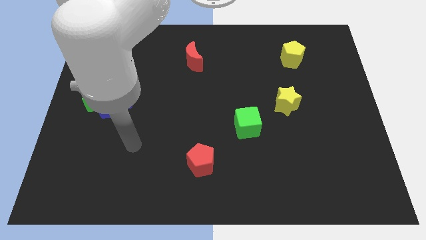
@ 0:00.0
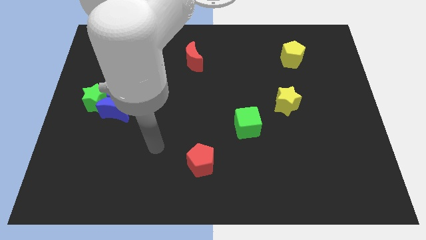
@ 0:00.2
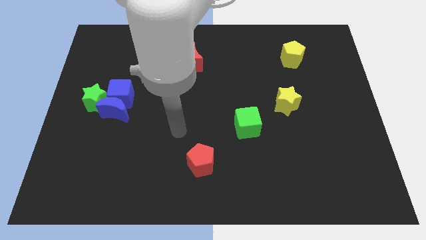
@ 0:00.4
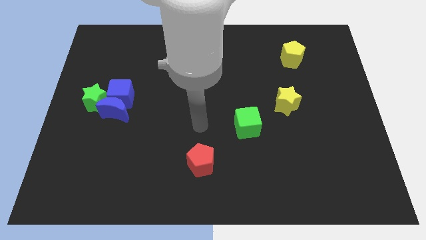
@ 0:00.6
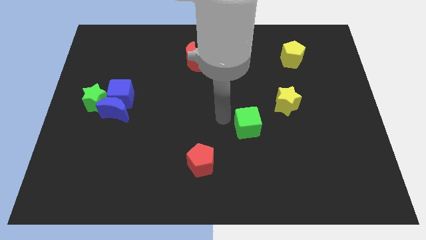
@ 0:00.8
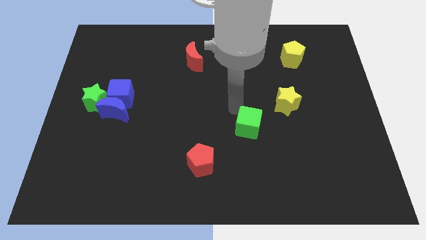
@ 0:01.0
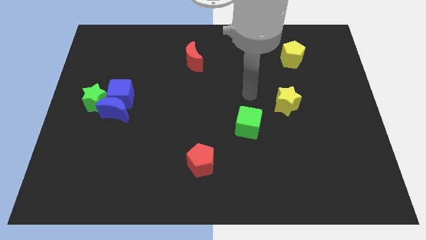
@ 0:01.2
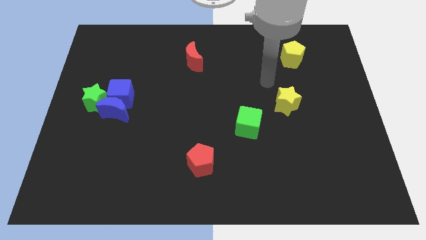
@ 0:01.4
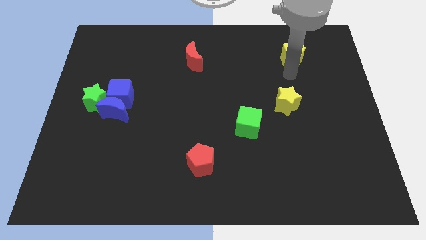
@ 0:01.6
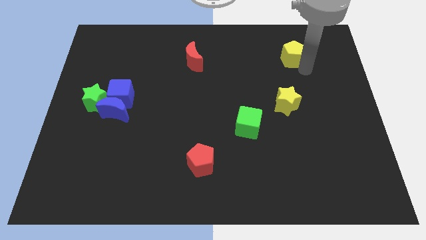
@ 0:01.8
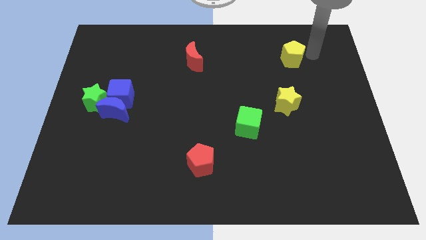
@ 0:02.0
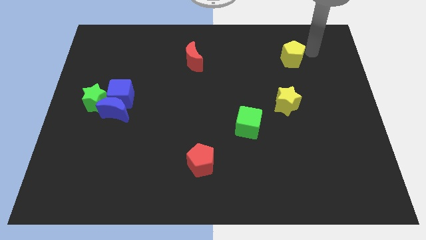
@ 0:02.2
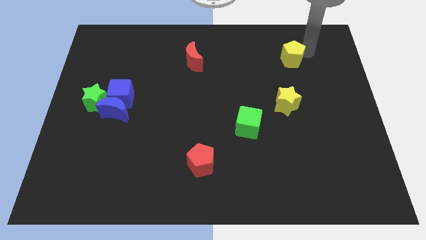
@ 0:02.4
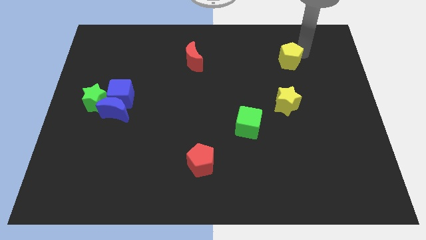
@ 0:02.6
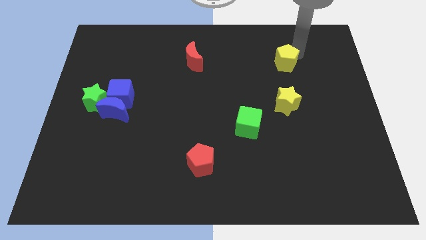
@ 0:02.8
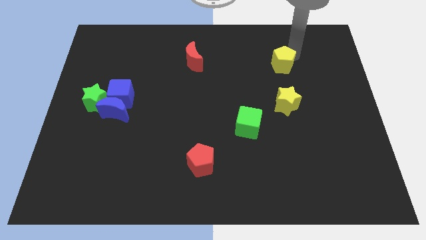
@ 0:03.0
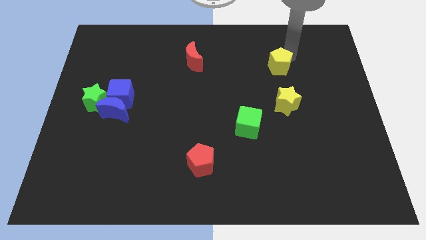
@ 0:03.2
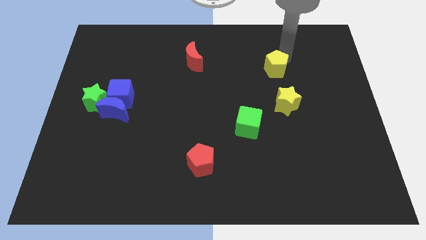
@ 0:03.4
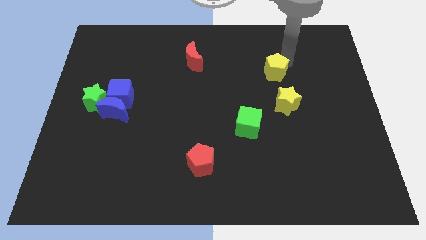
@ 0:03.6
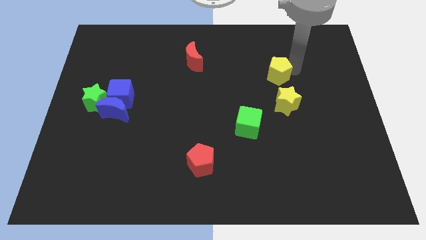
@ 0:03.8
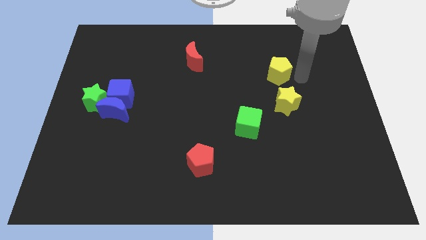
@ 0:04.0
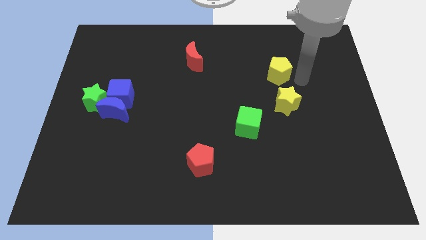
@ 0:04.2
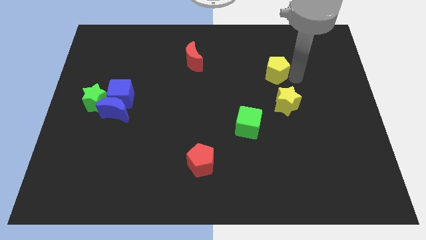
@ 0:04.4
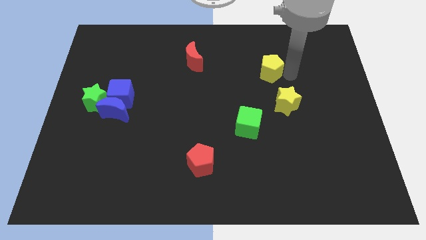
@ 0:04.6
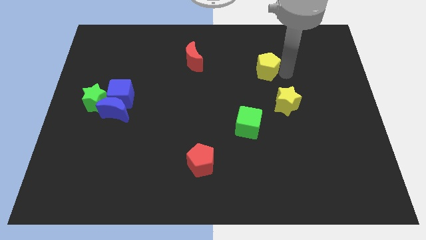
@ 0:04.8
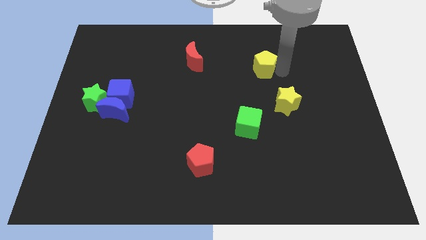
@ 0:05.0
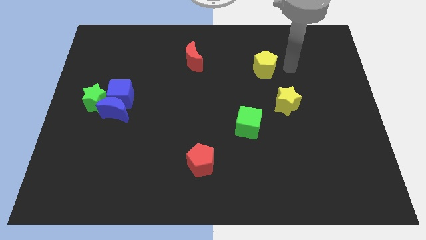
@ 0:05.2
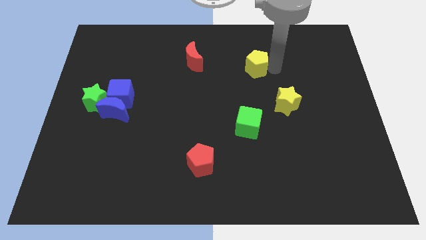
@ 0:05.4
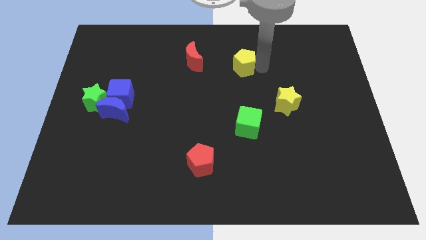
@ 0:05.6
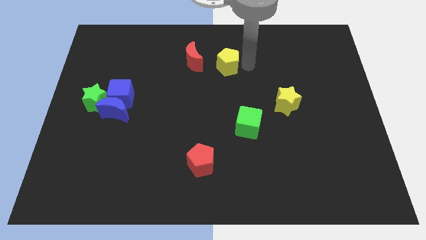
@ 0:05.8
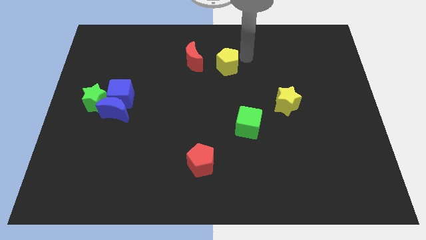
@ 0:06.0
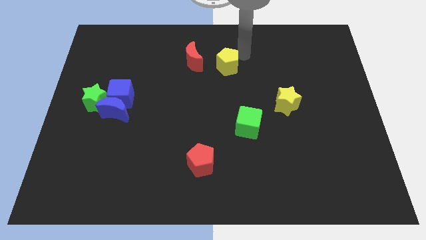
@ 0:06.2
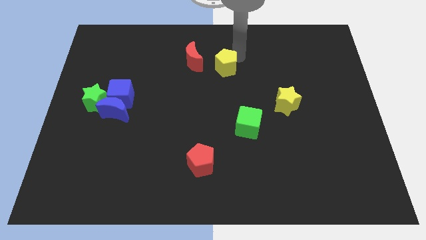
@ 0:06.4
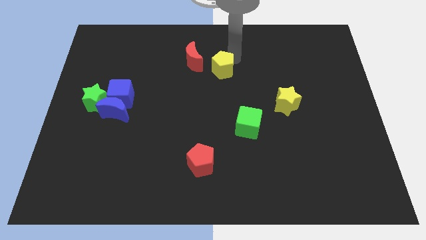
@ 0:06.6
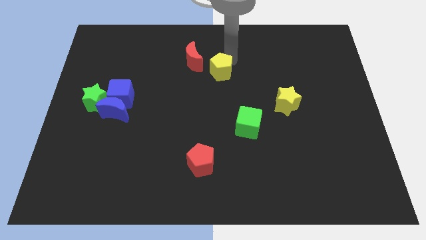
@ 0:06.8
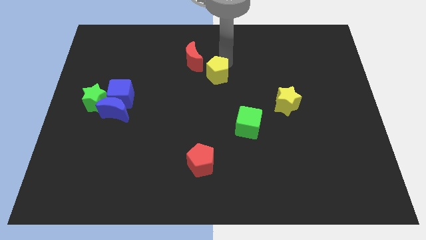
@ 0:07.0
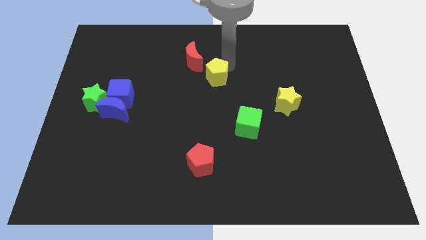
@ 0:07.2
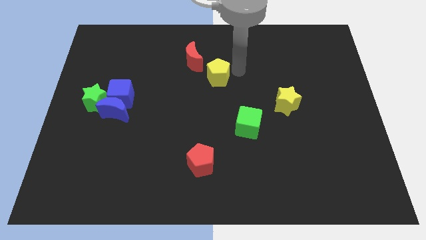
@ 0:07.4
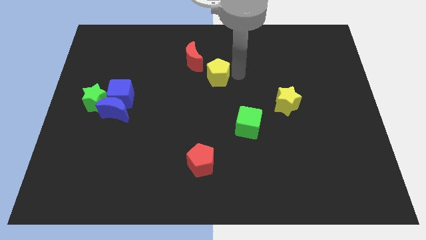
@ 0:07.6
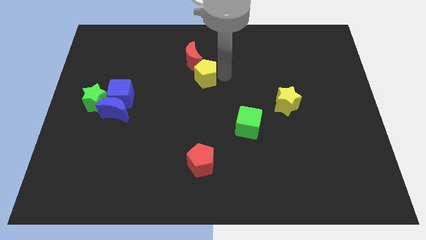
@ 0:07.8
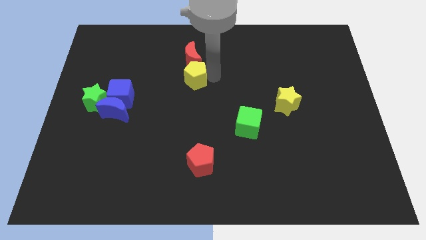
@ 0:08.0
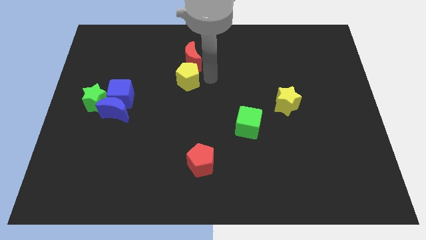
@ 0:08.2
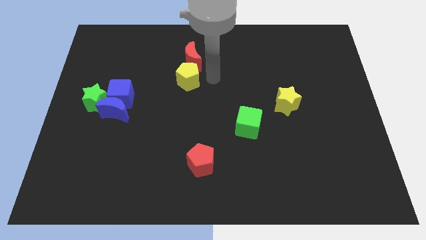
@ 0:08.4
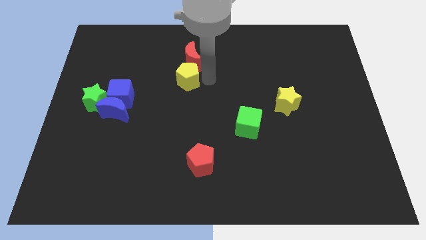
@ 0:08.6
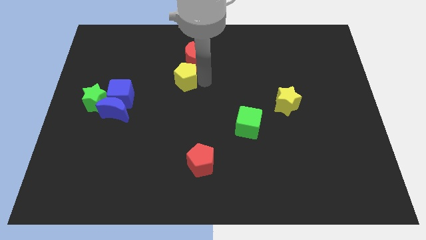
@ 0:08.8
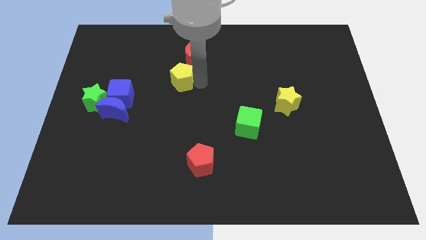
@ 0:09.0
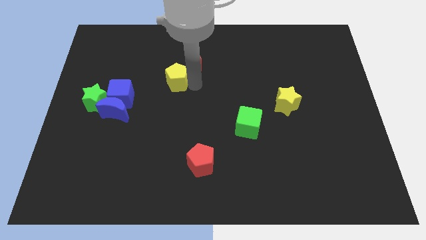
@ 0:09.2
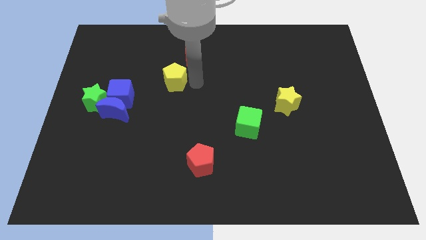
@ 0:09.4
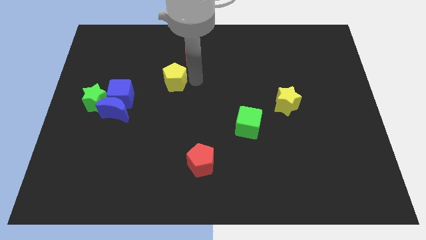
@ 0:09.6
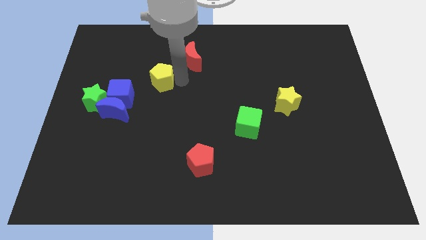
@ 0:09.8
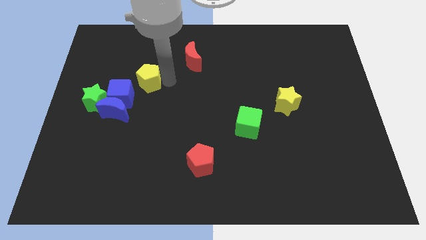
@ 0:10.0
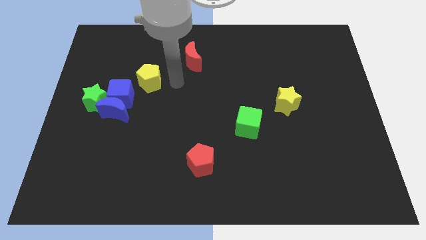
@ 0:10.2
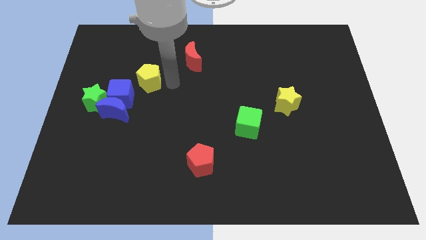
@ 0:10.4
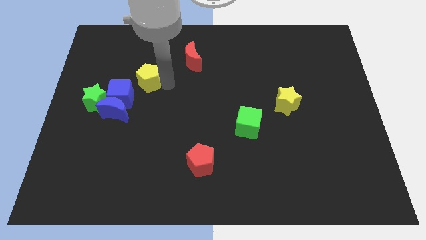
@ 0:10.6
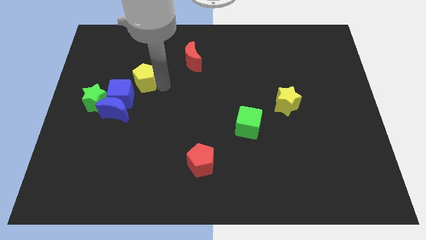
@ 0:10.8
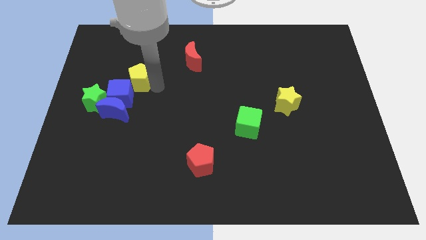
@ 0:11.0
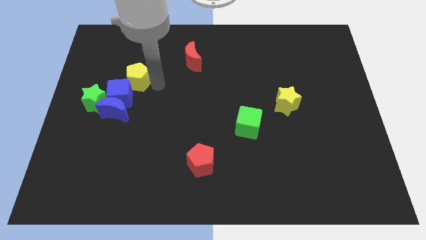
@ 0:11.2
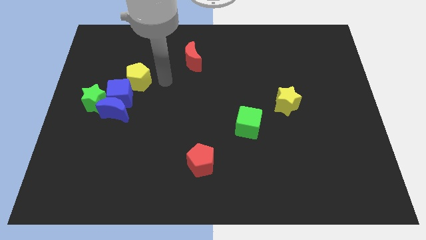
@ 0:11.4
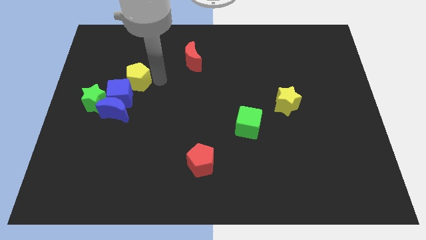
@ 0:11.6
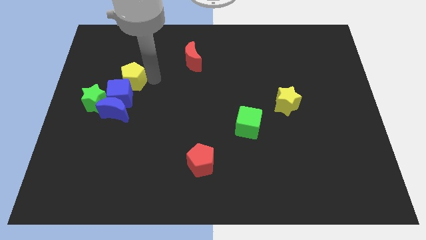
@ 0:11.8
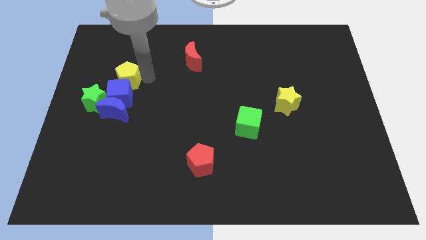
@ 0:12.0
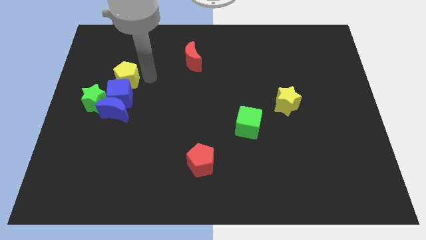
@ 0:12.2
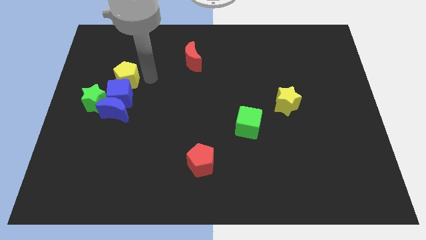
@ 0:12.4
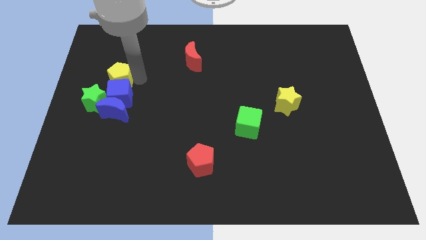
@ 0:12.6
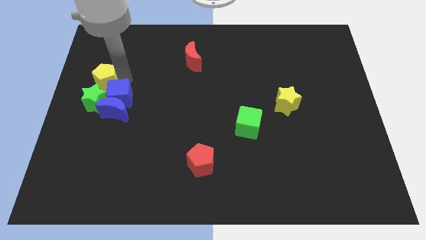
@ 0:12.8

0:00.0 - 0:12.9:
push the yellow pentagon to the left side
